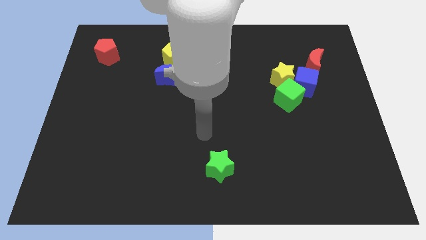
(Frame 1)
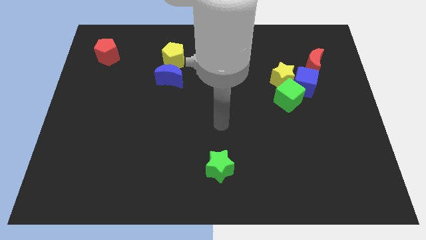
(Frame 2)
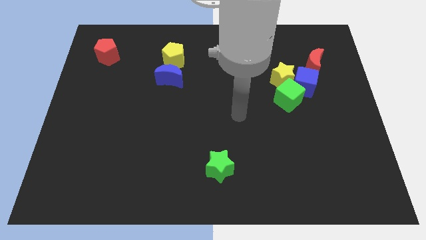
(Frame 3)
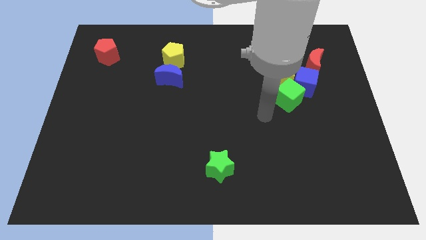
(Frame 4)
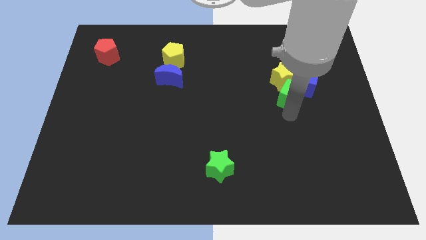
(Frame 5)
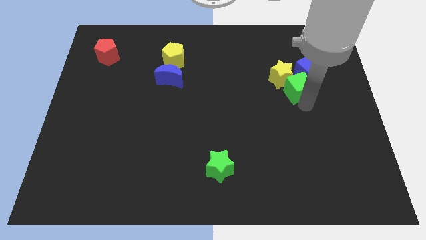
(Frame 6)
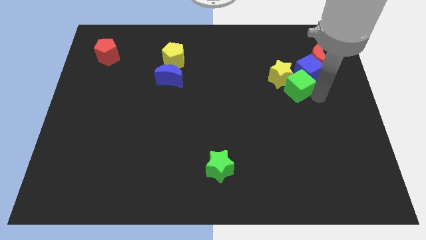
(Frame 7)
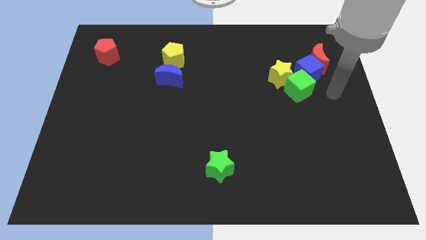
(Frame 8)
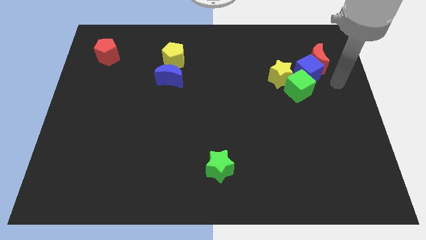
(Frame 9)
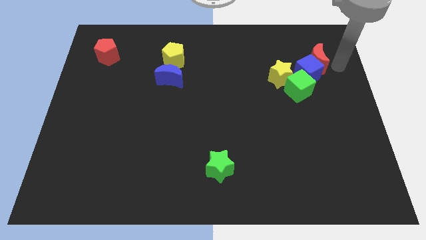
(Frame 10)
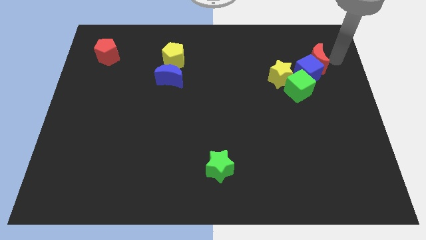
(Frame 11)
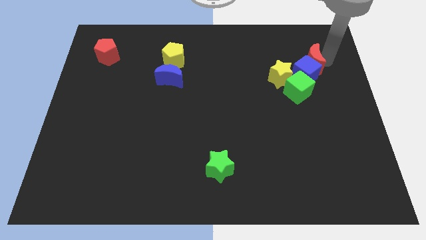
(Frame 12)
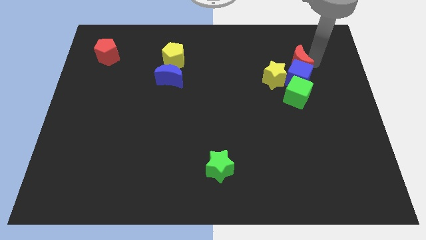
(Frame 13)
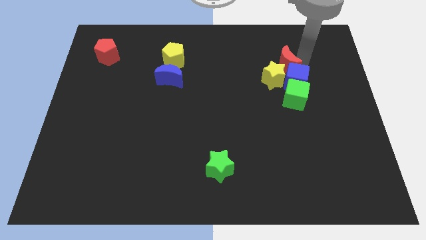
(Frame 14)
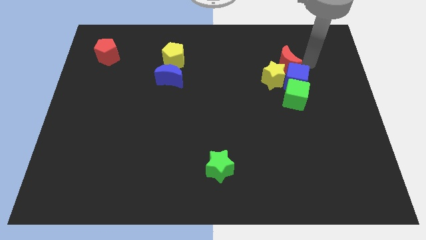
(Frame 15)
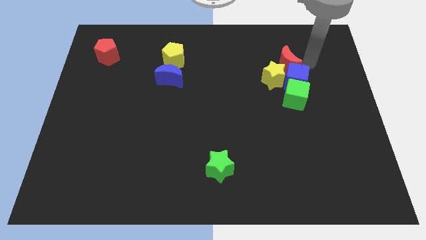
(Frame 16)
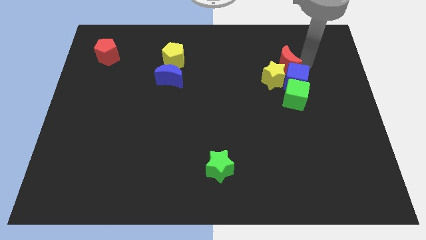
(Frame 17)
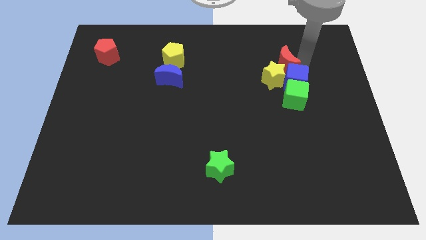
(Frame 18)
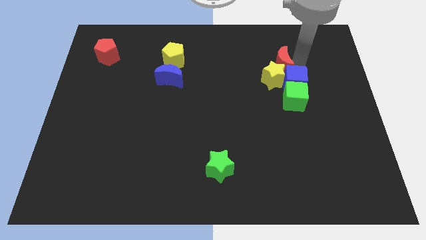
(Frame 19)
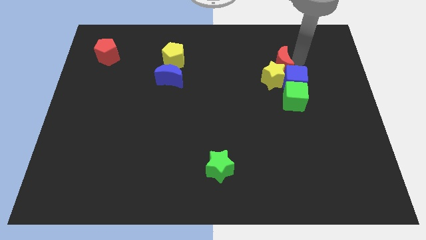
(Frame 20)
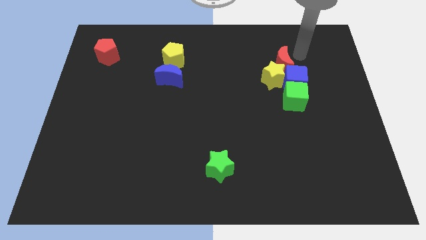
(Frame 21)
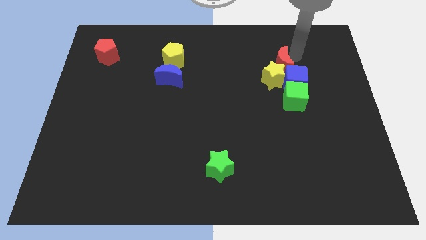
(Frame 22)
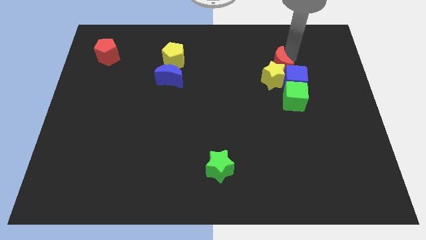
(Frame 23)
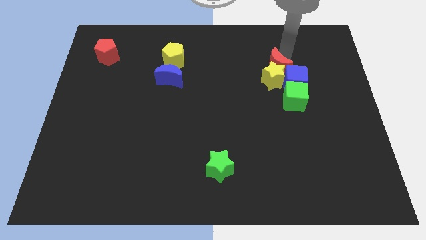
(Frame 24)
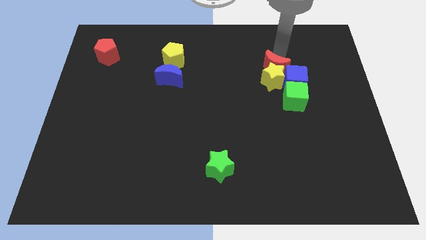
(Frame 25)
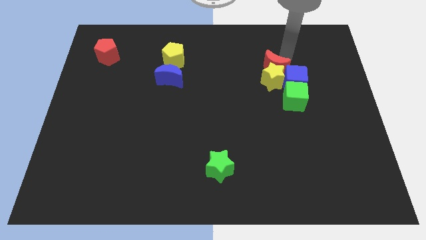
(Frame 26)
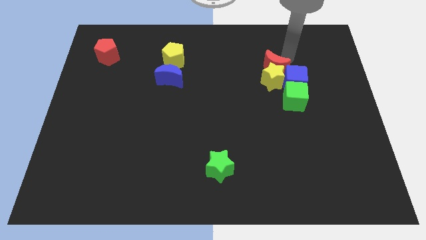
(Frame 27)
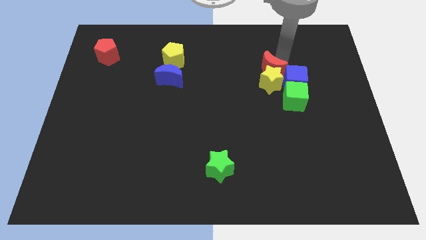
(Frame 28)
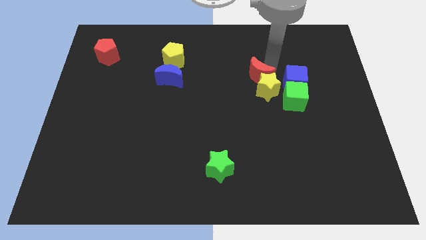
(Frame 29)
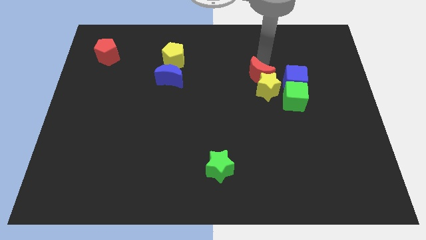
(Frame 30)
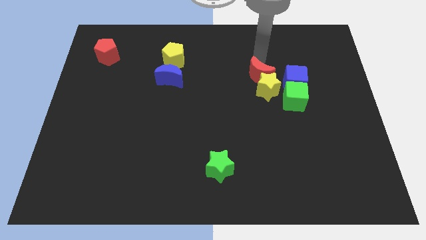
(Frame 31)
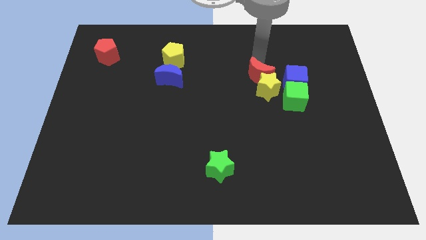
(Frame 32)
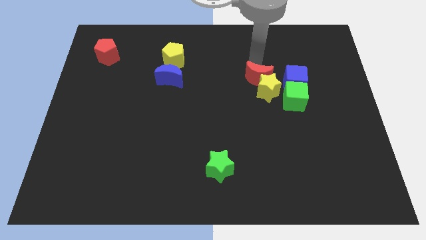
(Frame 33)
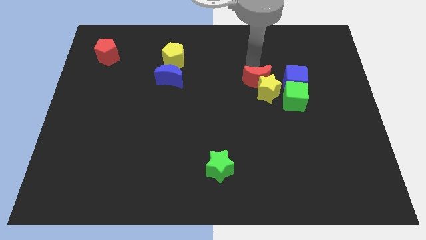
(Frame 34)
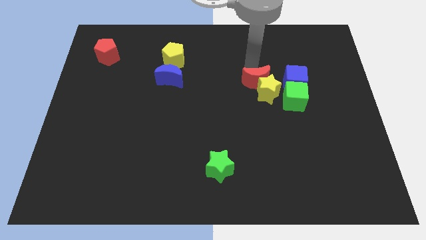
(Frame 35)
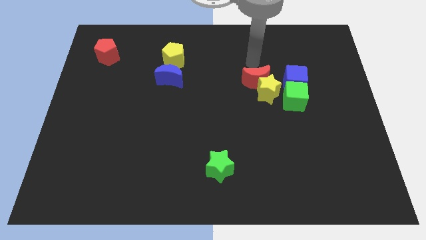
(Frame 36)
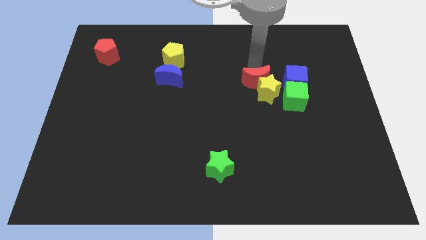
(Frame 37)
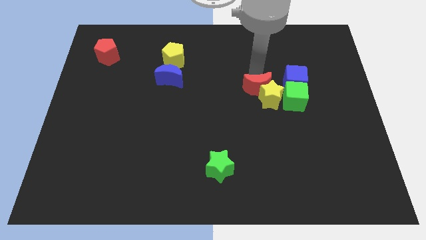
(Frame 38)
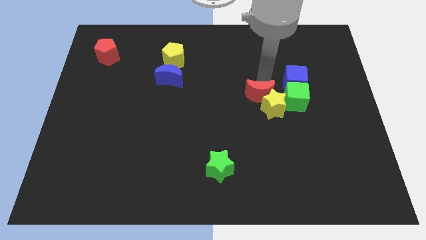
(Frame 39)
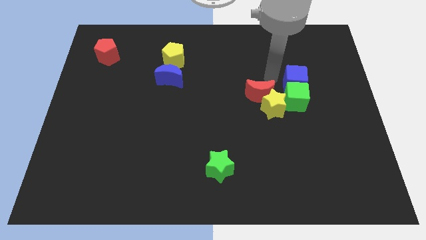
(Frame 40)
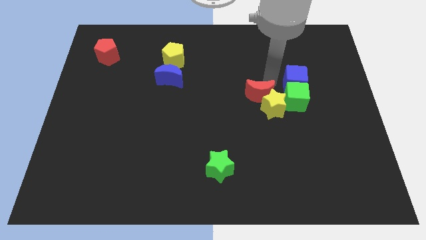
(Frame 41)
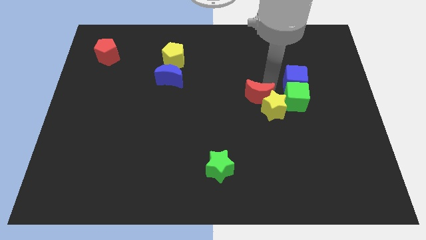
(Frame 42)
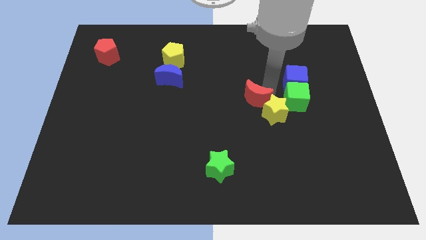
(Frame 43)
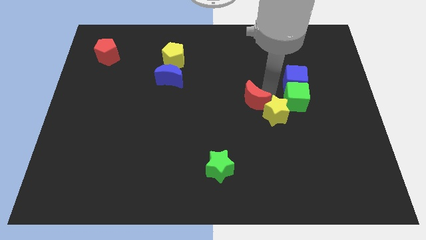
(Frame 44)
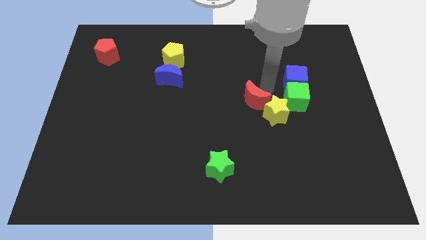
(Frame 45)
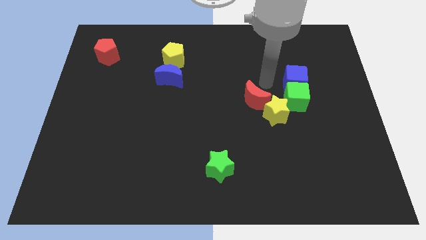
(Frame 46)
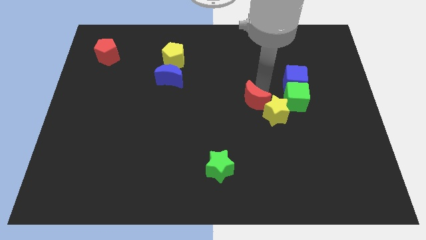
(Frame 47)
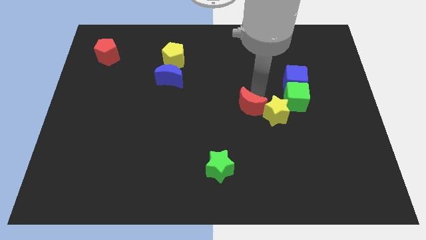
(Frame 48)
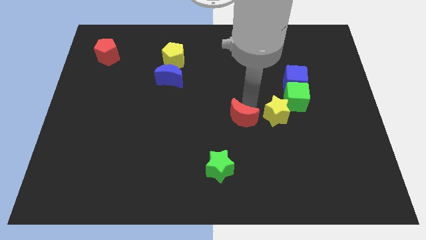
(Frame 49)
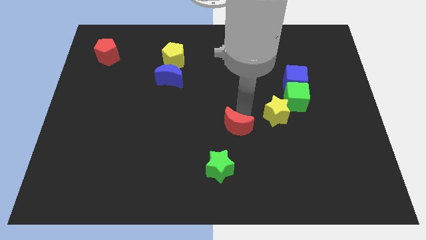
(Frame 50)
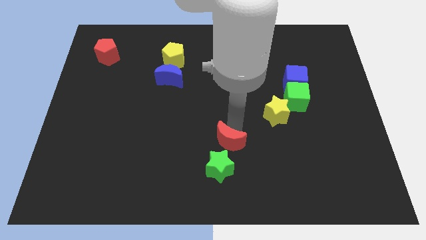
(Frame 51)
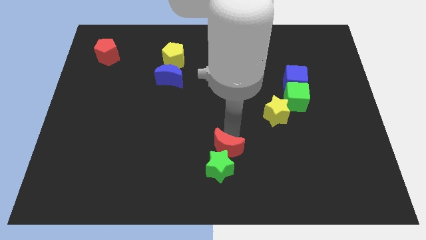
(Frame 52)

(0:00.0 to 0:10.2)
push the red moon towards the green star

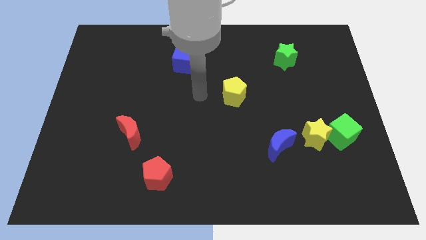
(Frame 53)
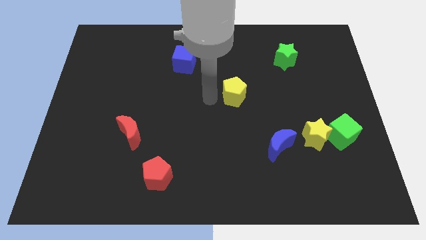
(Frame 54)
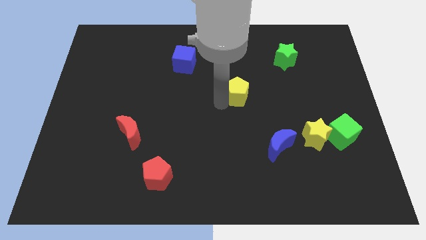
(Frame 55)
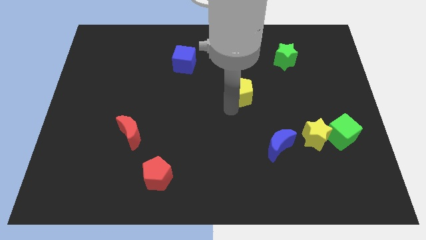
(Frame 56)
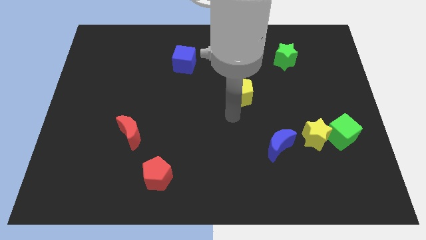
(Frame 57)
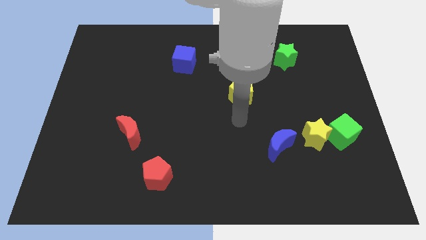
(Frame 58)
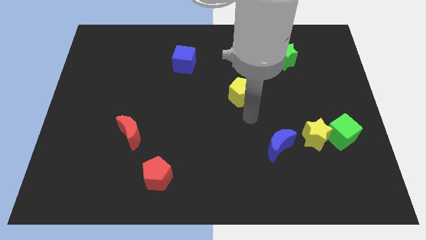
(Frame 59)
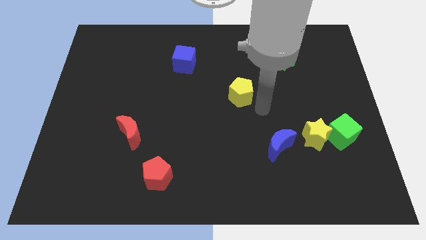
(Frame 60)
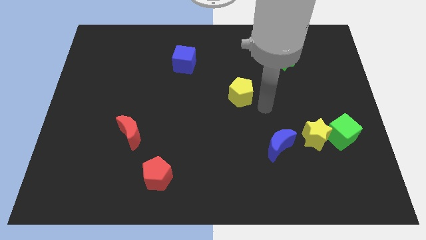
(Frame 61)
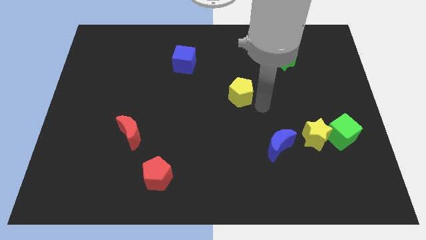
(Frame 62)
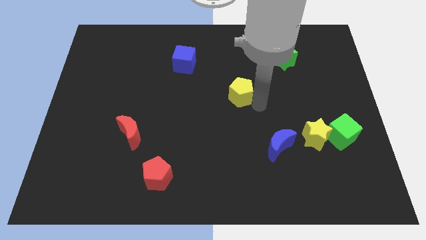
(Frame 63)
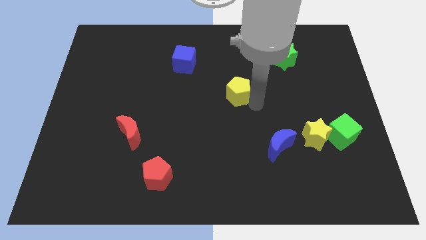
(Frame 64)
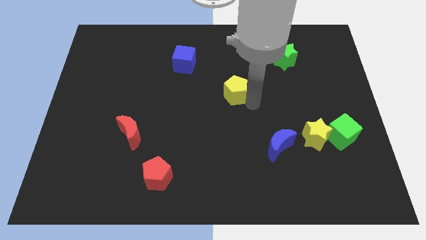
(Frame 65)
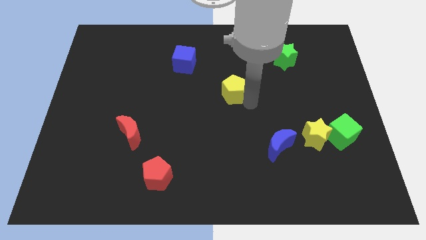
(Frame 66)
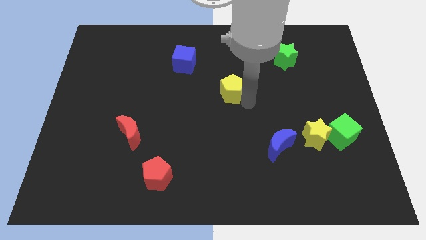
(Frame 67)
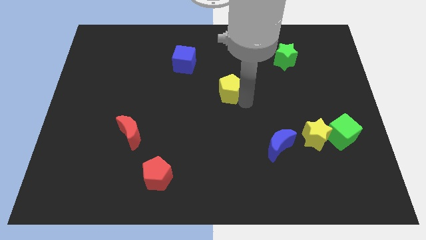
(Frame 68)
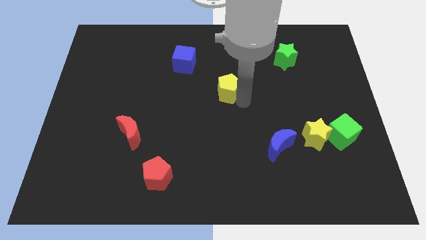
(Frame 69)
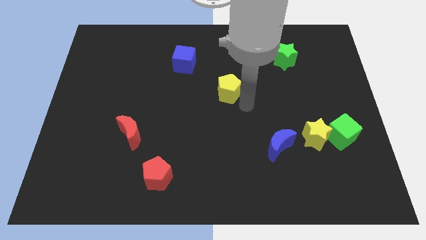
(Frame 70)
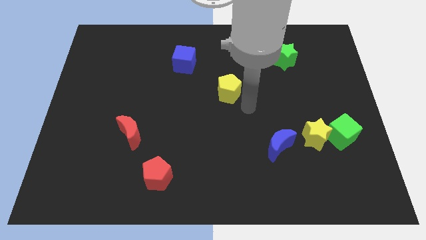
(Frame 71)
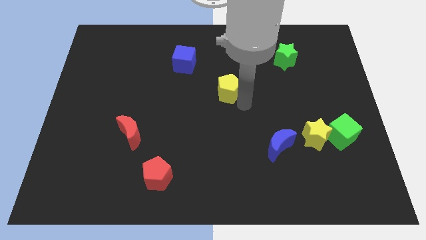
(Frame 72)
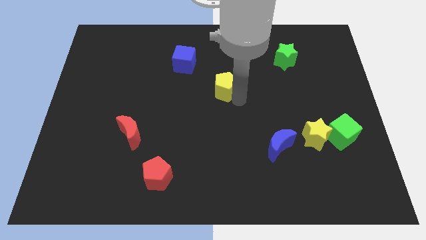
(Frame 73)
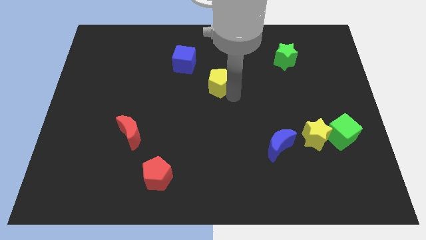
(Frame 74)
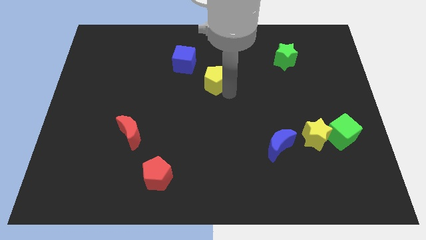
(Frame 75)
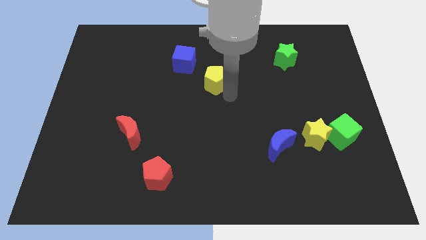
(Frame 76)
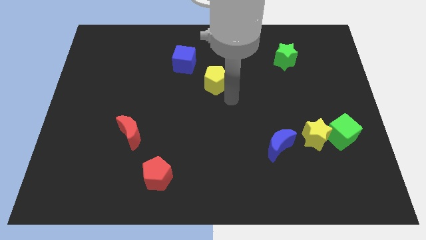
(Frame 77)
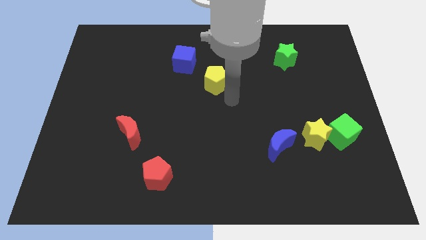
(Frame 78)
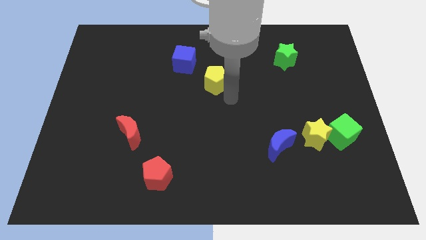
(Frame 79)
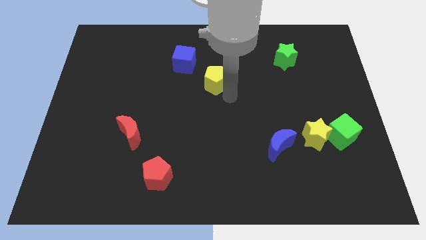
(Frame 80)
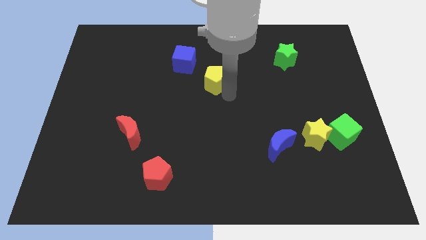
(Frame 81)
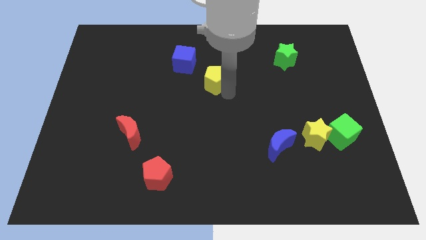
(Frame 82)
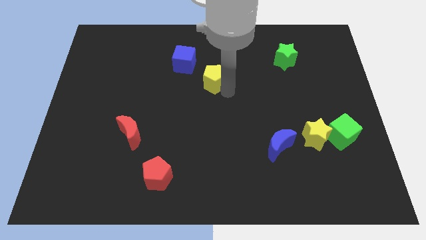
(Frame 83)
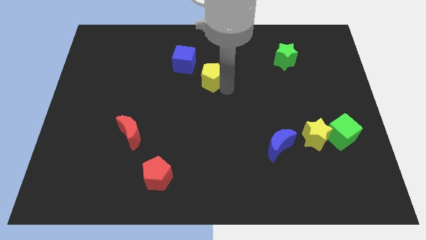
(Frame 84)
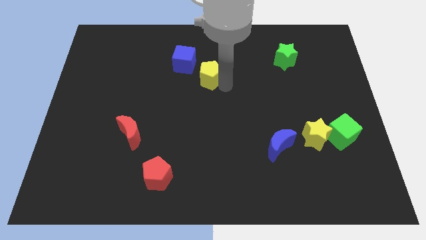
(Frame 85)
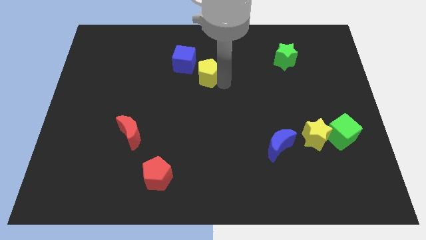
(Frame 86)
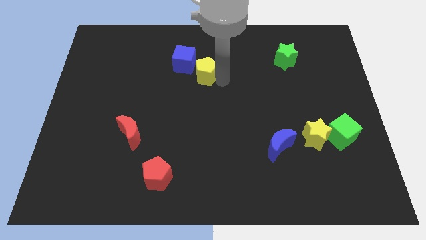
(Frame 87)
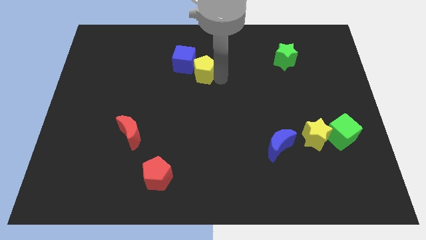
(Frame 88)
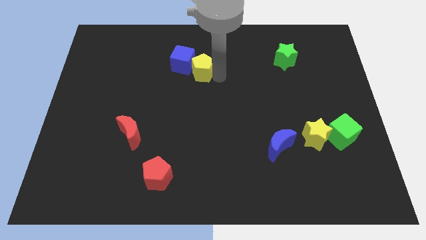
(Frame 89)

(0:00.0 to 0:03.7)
move the yellow pentagon to the blue cube
